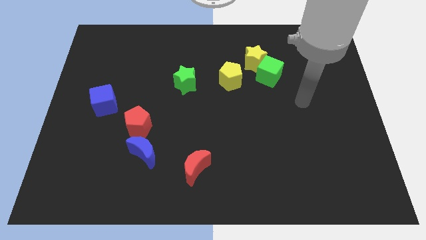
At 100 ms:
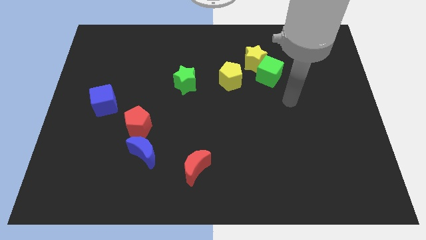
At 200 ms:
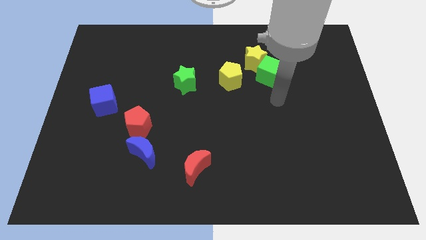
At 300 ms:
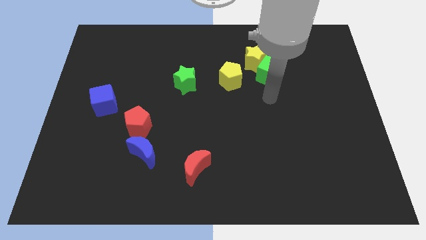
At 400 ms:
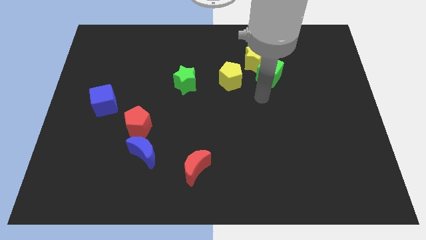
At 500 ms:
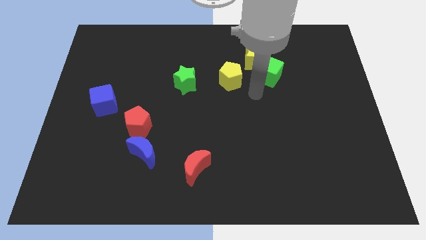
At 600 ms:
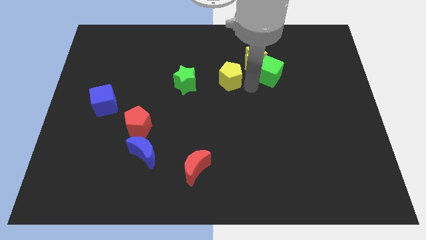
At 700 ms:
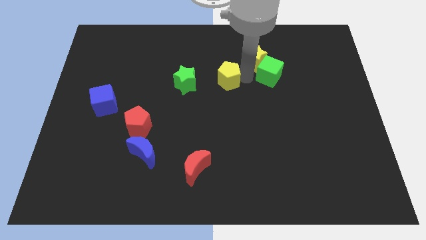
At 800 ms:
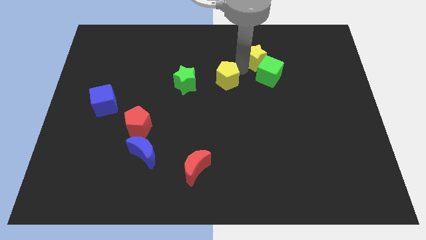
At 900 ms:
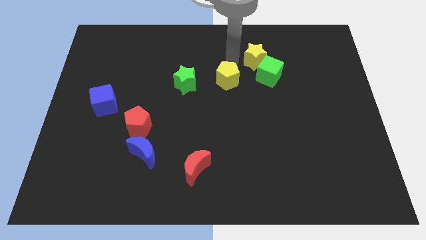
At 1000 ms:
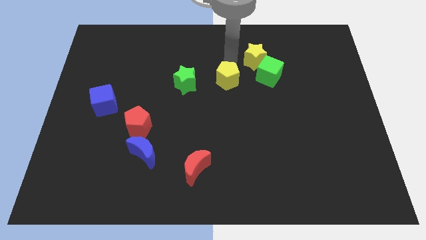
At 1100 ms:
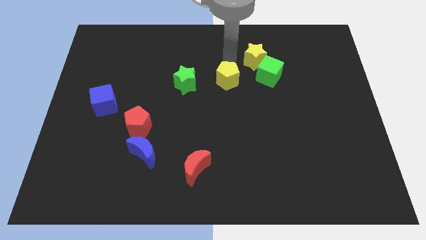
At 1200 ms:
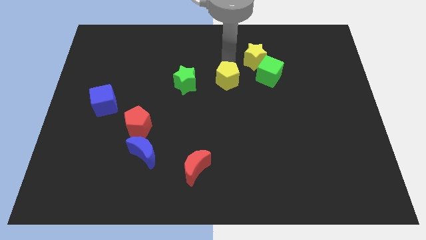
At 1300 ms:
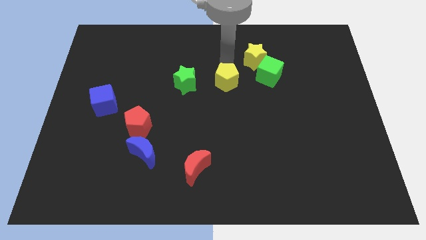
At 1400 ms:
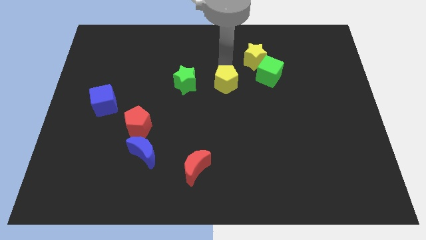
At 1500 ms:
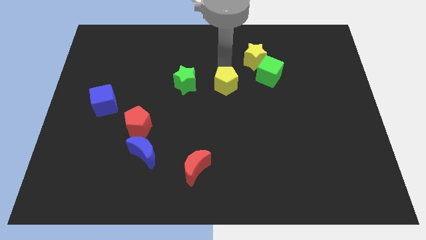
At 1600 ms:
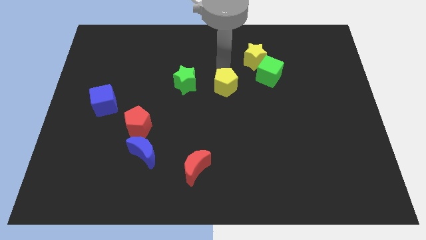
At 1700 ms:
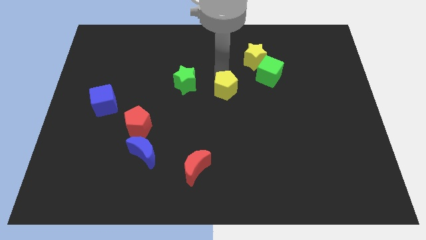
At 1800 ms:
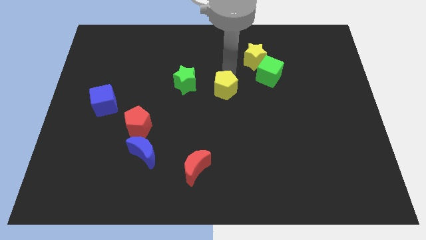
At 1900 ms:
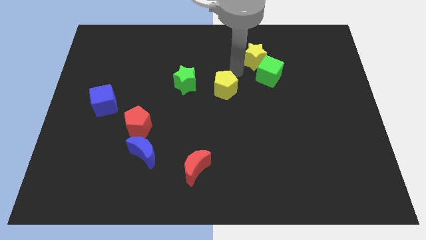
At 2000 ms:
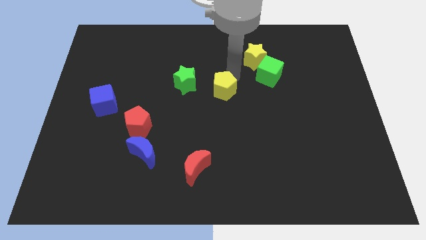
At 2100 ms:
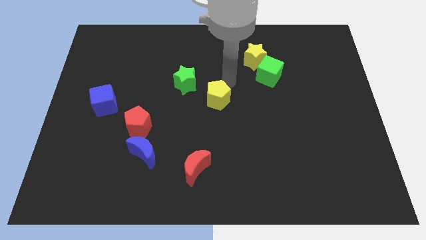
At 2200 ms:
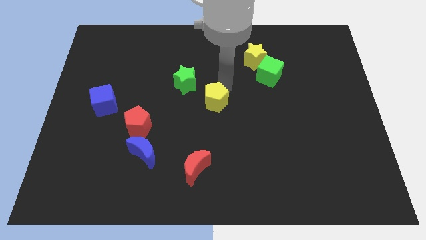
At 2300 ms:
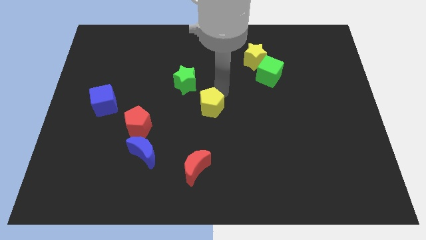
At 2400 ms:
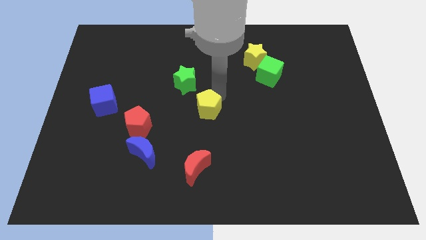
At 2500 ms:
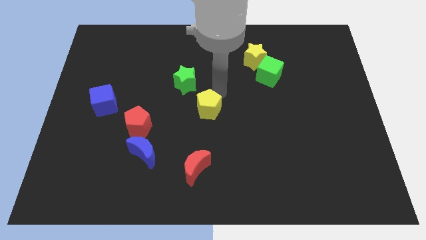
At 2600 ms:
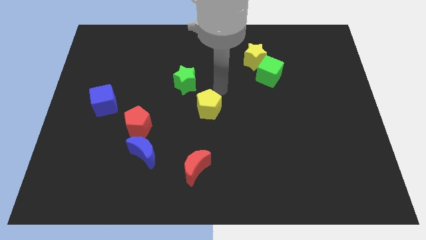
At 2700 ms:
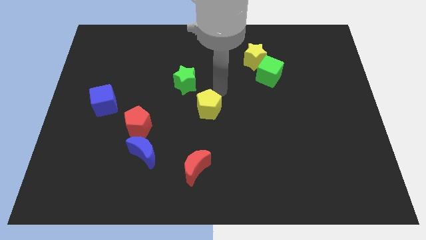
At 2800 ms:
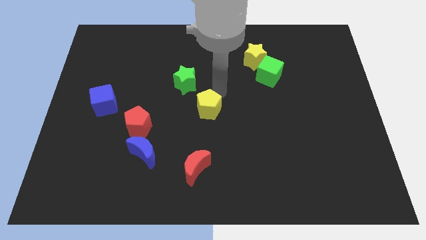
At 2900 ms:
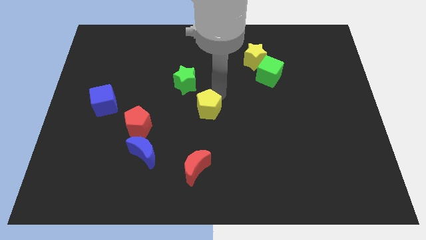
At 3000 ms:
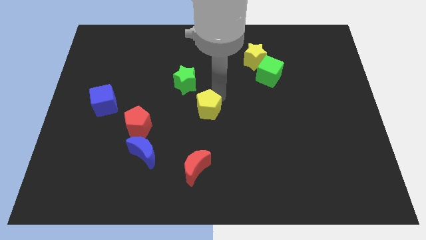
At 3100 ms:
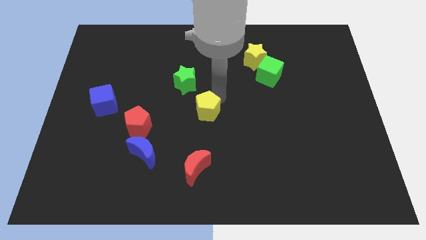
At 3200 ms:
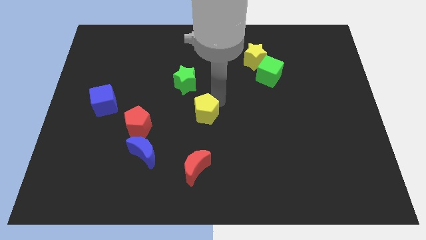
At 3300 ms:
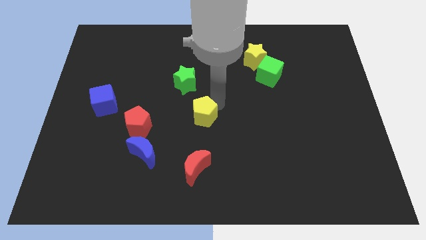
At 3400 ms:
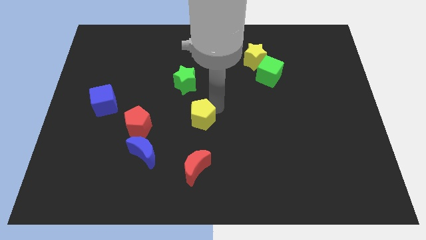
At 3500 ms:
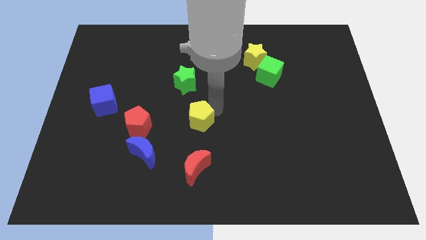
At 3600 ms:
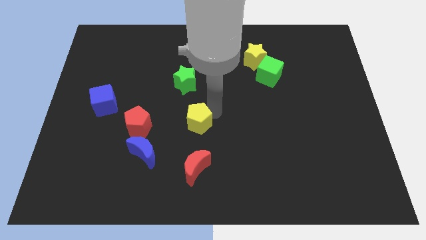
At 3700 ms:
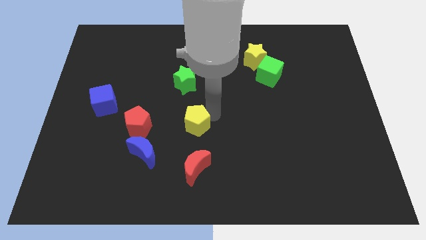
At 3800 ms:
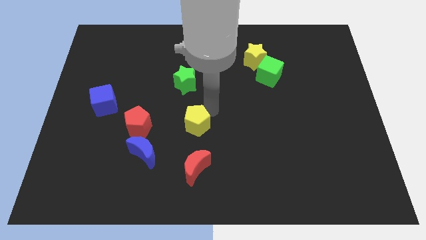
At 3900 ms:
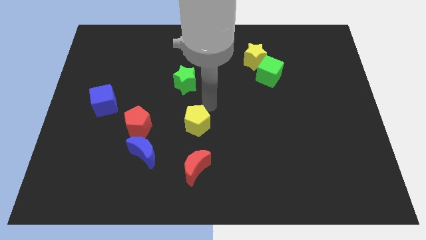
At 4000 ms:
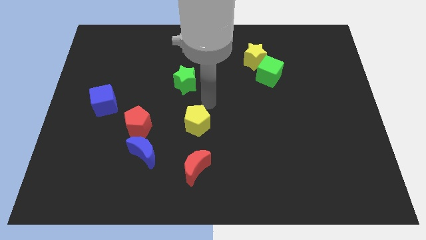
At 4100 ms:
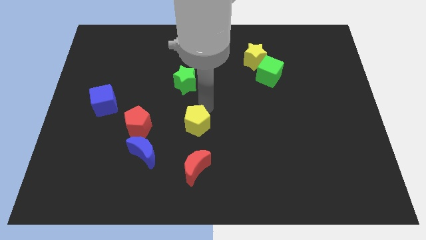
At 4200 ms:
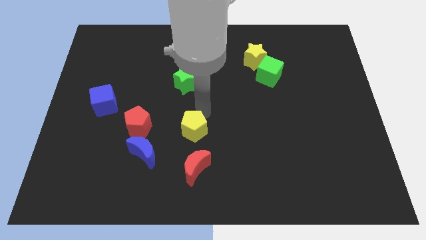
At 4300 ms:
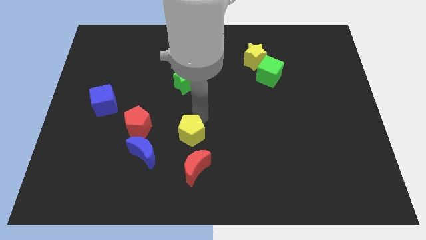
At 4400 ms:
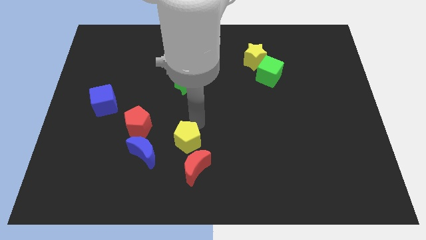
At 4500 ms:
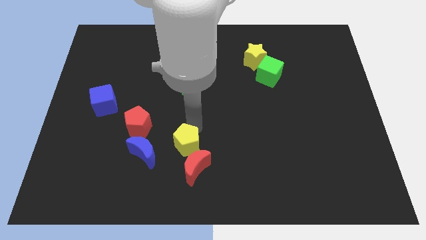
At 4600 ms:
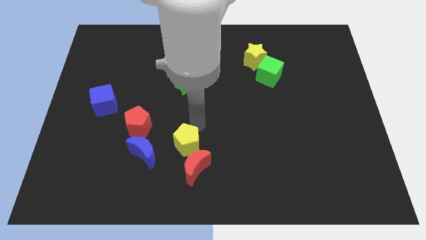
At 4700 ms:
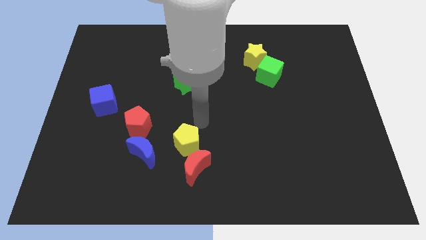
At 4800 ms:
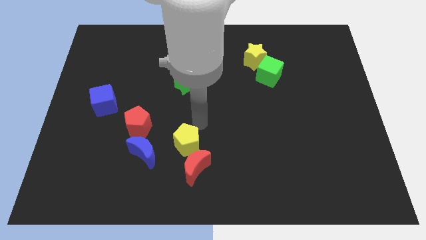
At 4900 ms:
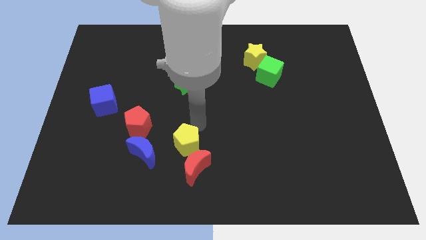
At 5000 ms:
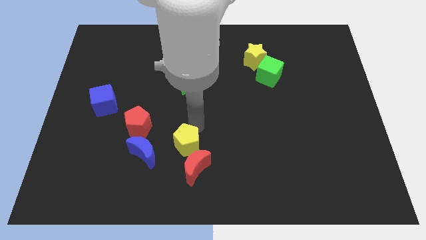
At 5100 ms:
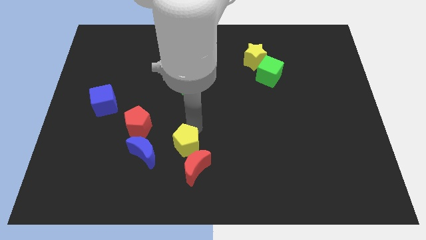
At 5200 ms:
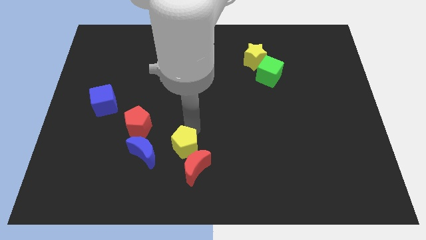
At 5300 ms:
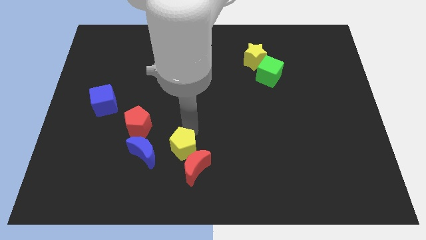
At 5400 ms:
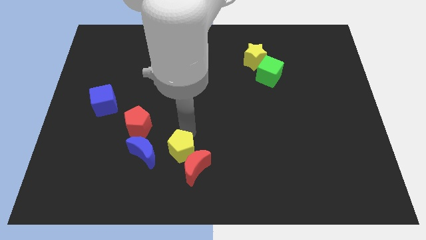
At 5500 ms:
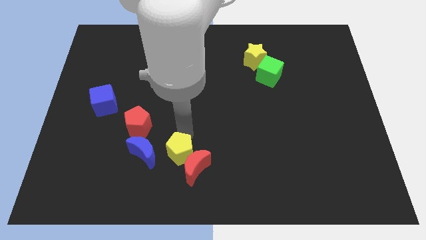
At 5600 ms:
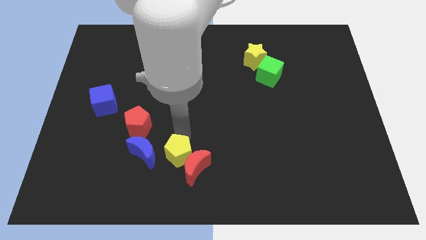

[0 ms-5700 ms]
put the yellow pentagon to the bottom right of the blue moon

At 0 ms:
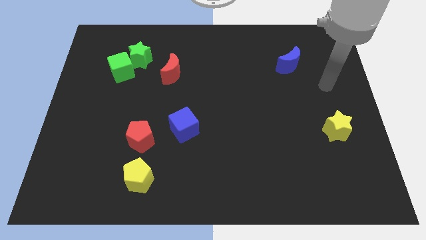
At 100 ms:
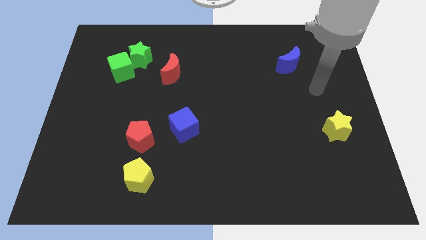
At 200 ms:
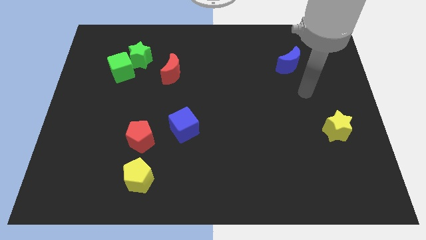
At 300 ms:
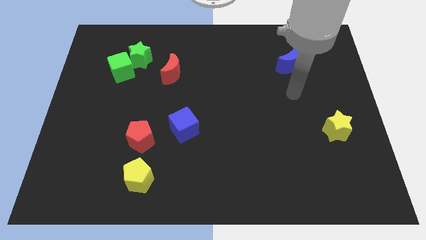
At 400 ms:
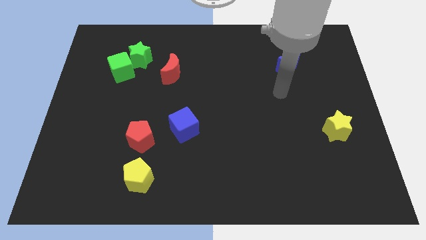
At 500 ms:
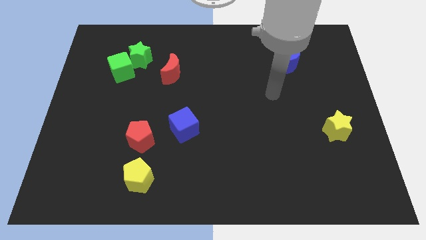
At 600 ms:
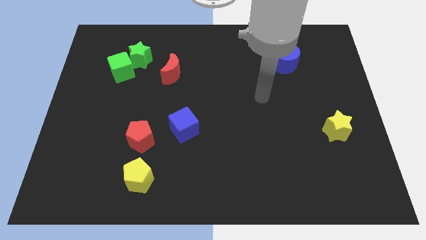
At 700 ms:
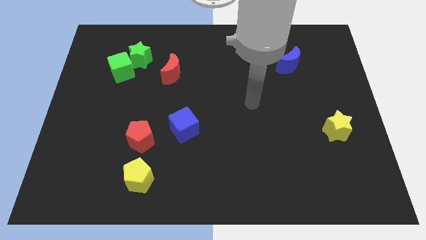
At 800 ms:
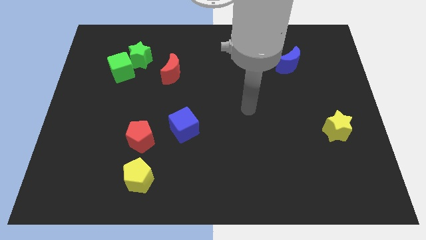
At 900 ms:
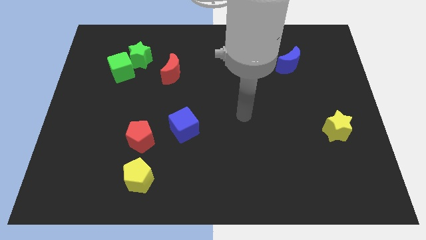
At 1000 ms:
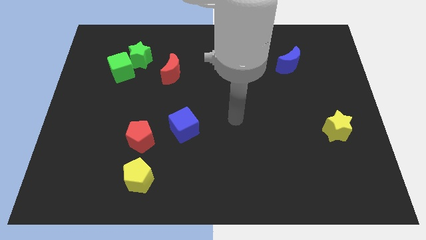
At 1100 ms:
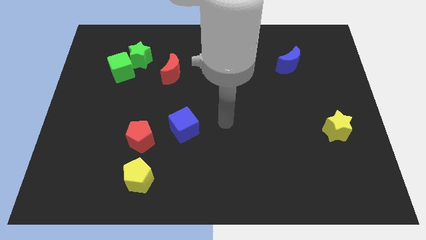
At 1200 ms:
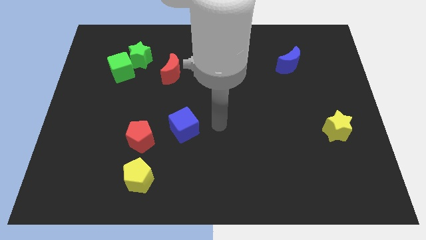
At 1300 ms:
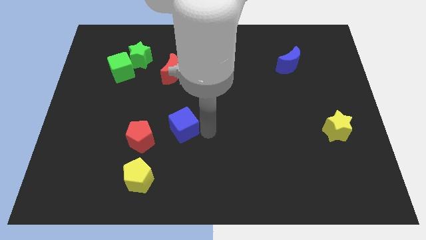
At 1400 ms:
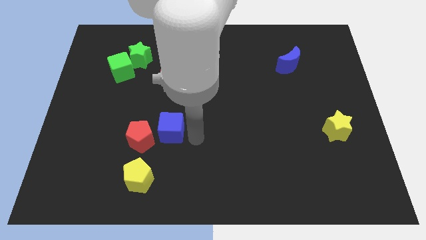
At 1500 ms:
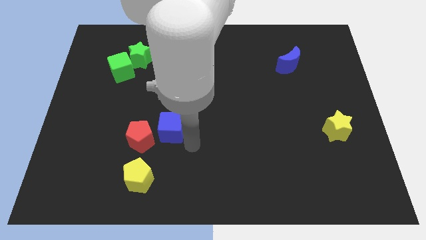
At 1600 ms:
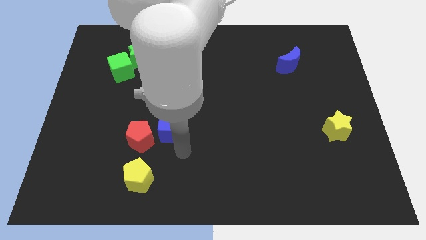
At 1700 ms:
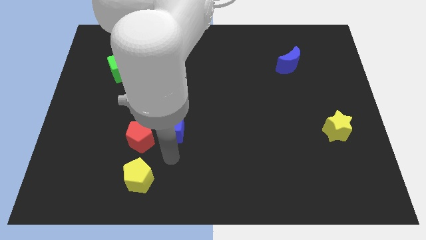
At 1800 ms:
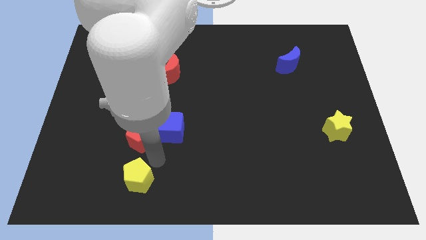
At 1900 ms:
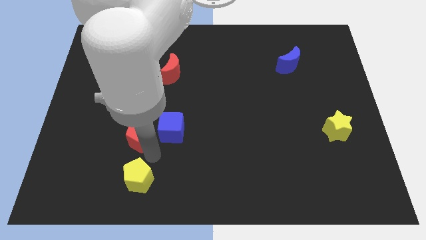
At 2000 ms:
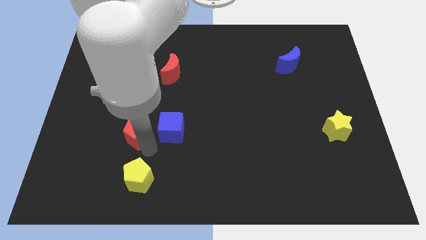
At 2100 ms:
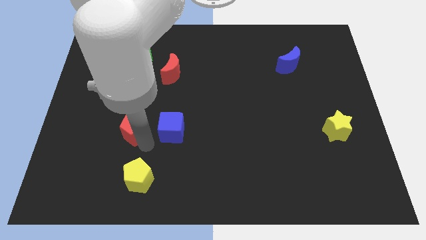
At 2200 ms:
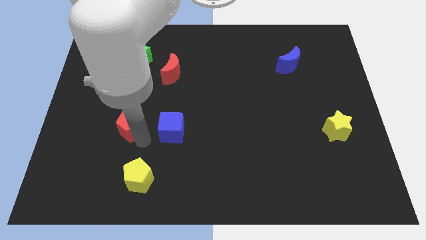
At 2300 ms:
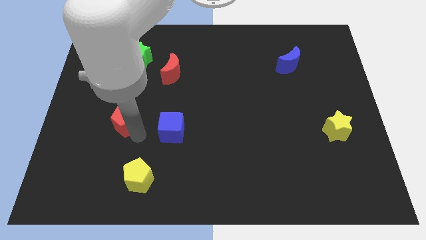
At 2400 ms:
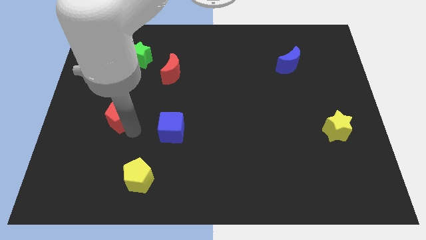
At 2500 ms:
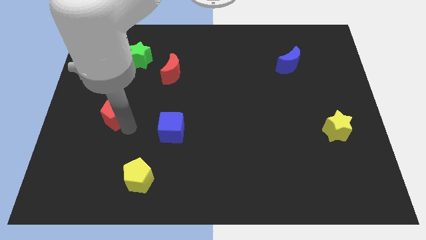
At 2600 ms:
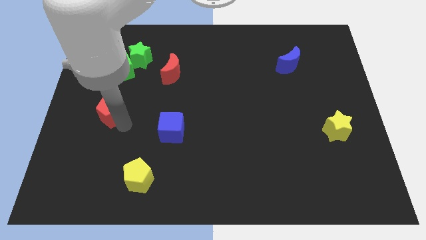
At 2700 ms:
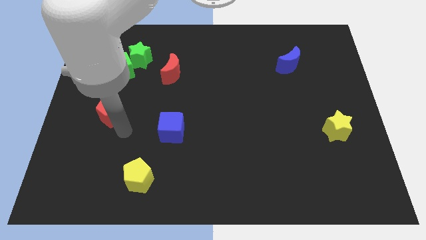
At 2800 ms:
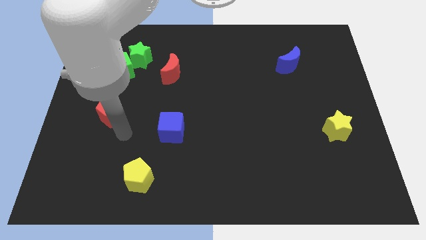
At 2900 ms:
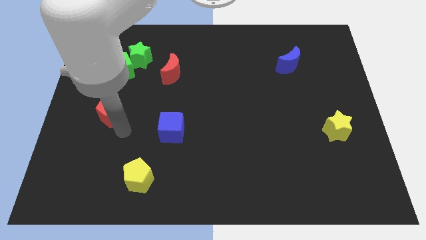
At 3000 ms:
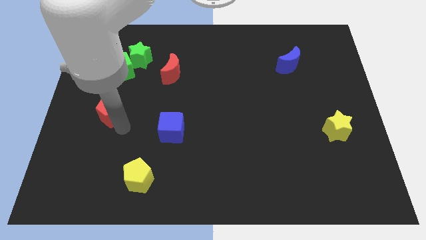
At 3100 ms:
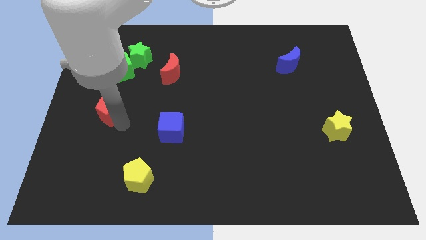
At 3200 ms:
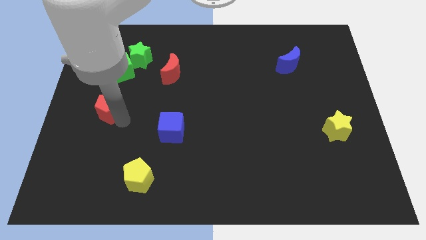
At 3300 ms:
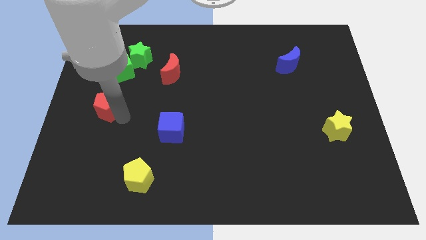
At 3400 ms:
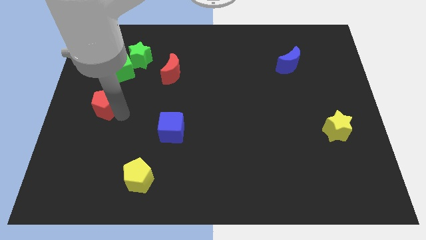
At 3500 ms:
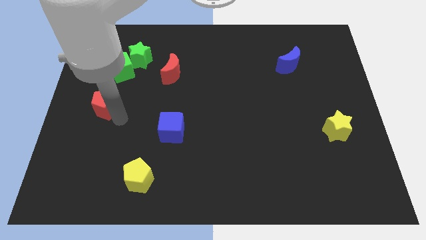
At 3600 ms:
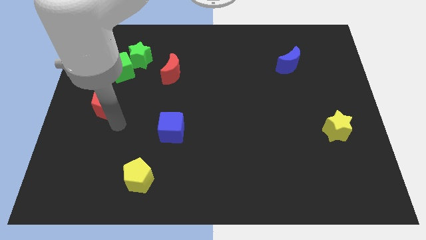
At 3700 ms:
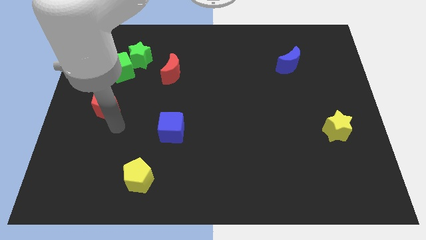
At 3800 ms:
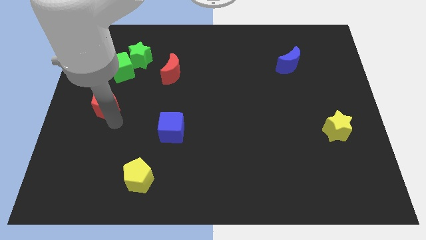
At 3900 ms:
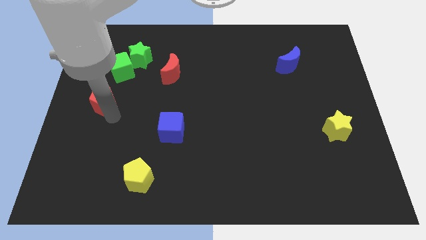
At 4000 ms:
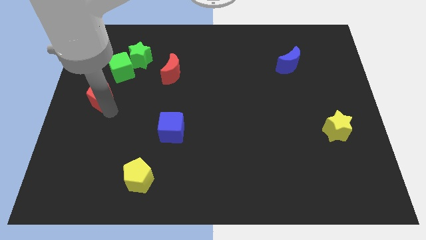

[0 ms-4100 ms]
push the red pentagon diagonally down and to the left of the green cube
